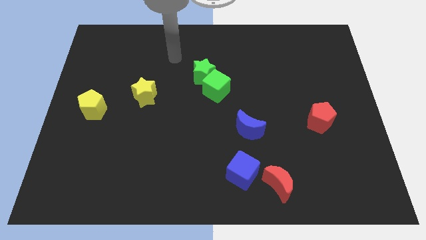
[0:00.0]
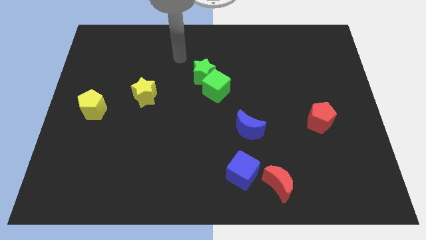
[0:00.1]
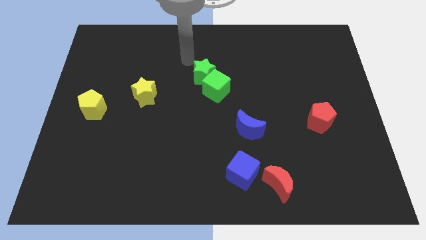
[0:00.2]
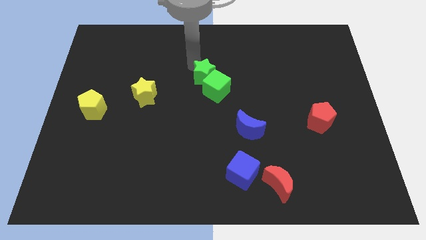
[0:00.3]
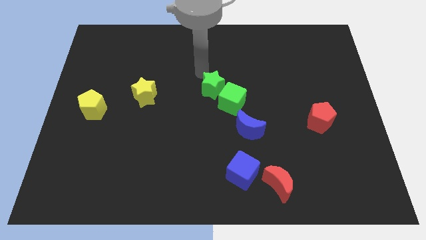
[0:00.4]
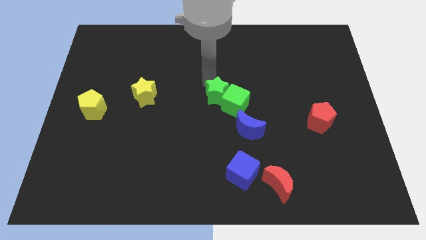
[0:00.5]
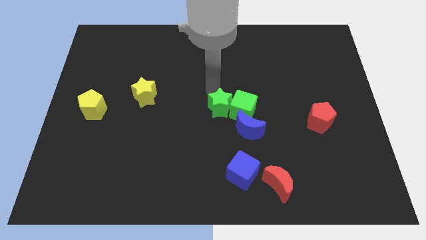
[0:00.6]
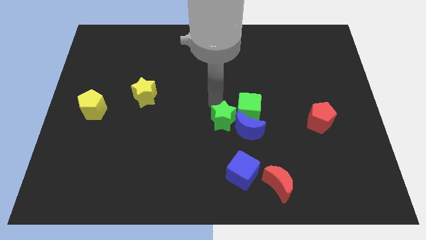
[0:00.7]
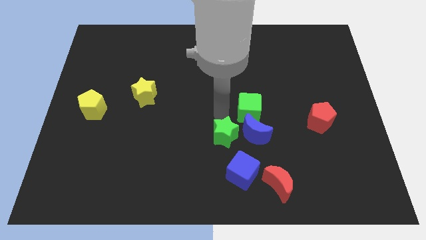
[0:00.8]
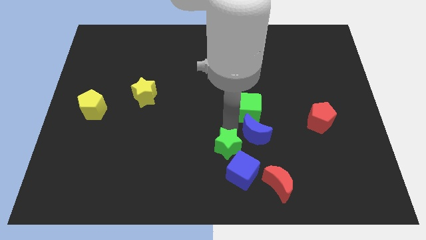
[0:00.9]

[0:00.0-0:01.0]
separate the green cube from the green star

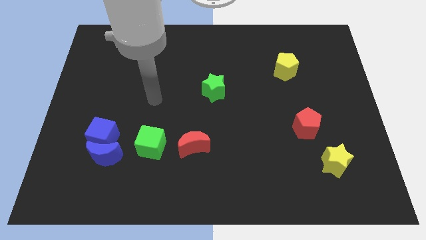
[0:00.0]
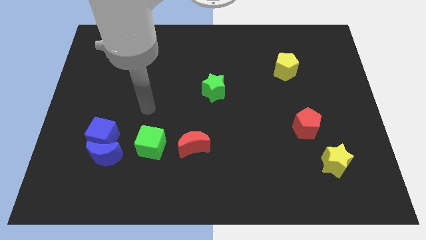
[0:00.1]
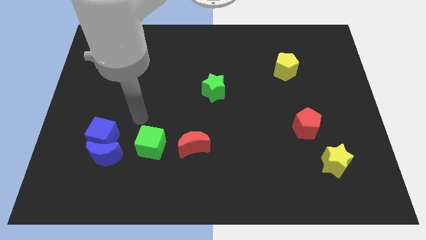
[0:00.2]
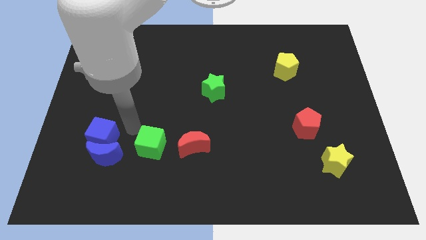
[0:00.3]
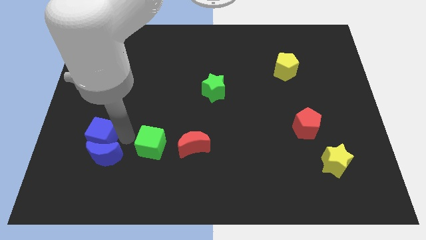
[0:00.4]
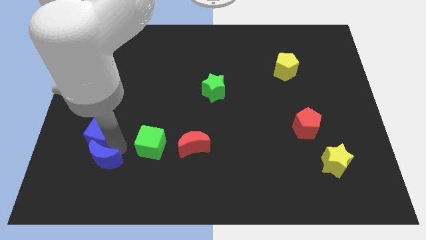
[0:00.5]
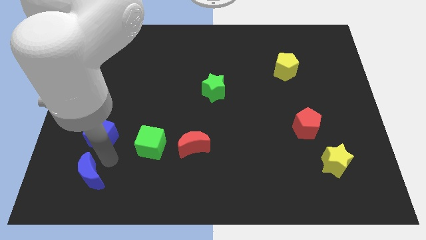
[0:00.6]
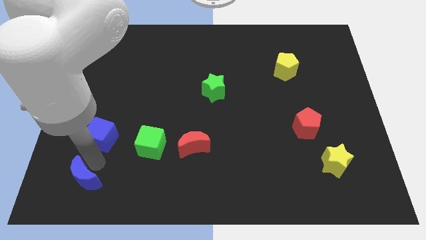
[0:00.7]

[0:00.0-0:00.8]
separate the blue cube from the blue moon

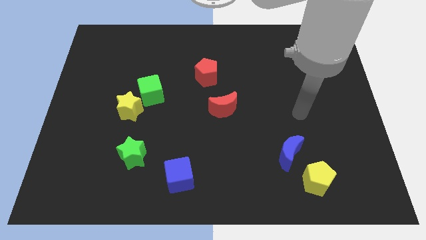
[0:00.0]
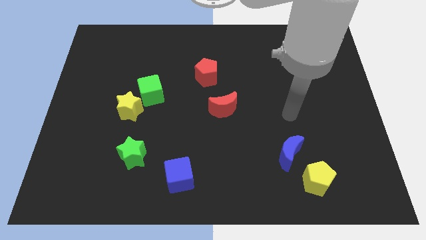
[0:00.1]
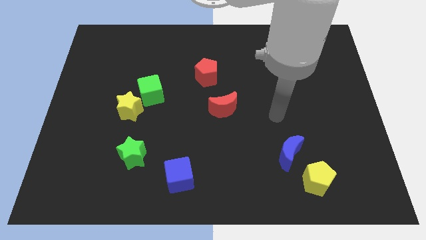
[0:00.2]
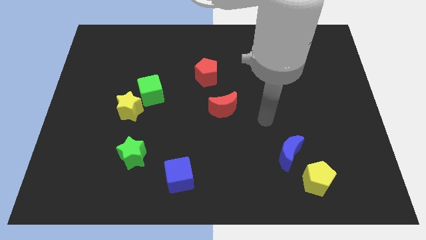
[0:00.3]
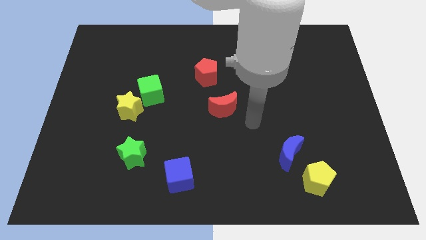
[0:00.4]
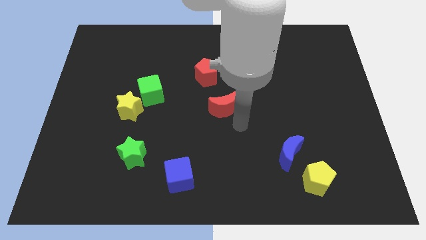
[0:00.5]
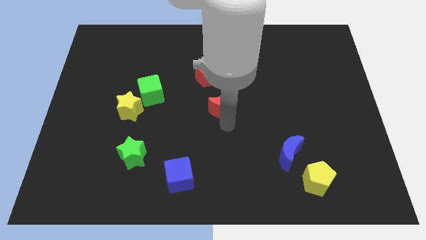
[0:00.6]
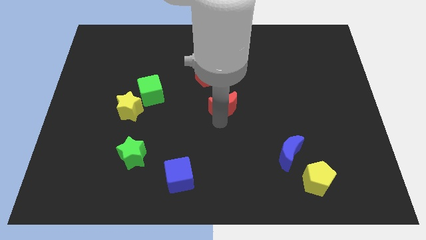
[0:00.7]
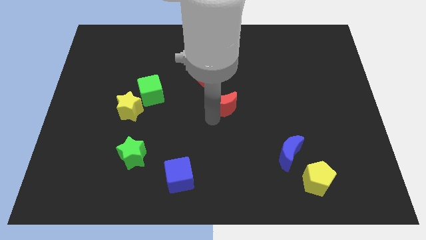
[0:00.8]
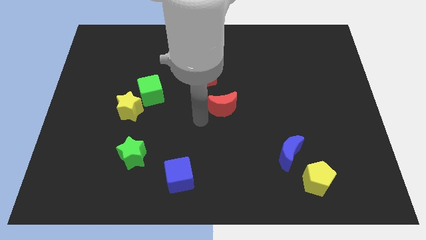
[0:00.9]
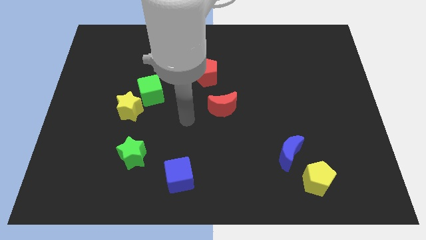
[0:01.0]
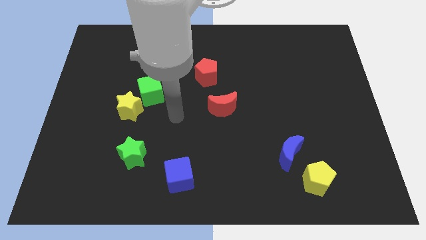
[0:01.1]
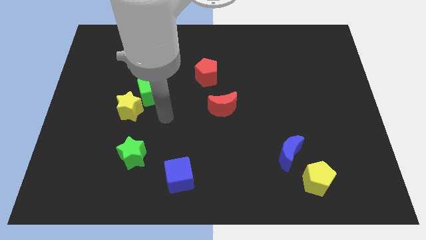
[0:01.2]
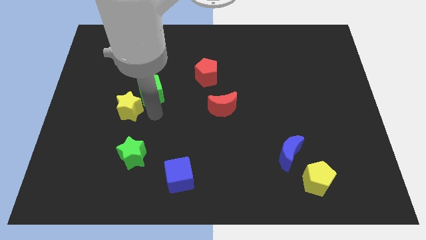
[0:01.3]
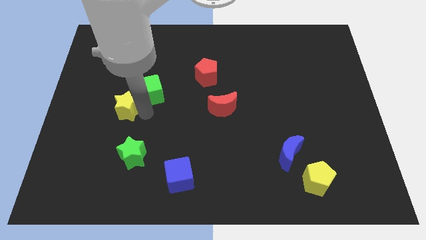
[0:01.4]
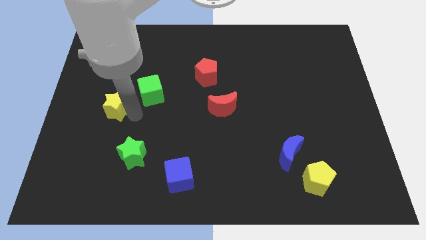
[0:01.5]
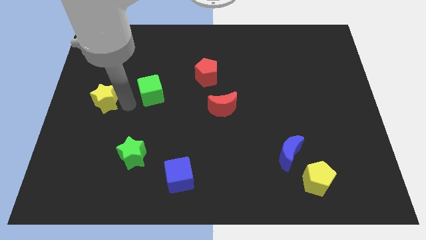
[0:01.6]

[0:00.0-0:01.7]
separate the green cube from the yellow star

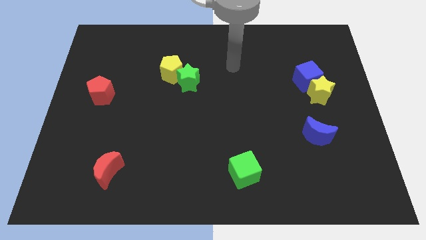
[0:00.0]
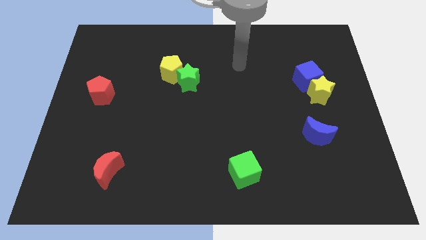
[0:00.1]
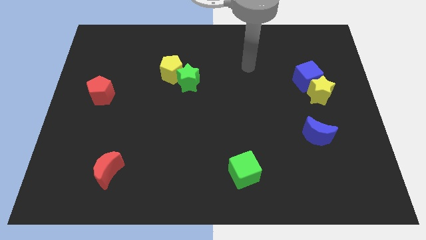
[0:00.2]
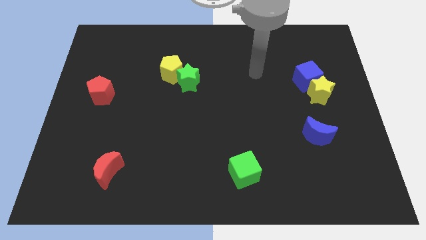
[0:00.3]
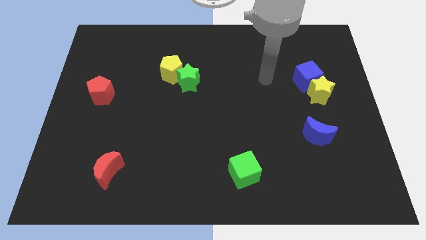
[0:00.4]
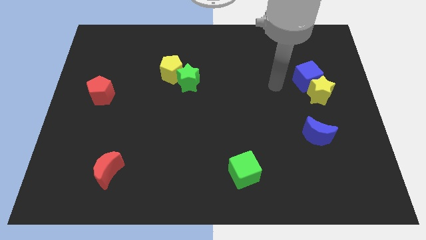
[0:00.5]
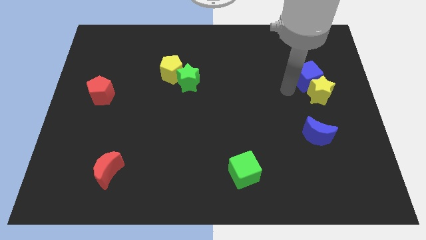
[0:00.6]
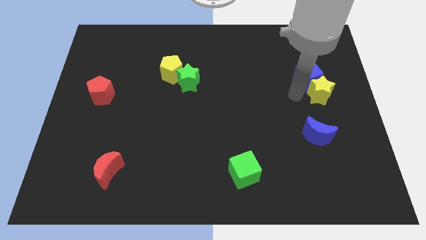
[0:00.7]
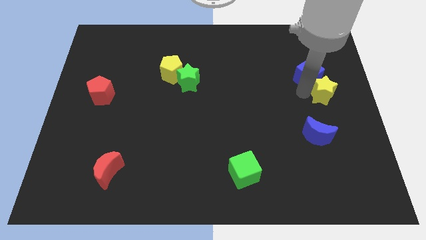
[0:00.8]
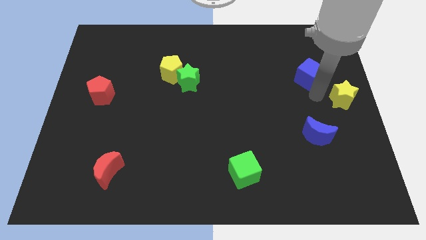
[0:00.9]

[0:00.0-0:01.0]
pull the blue cube apart from the yellow star

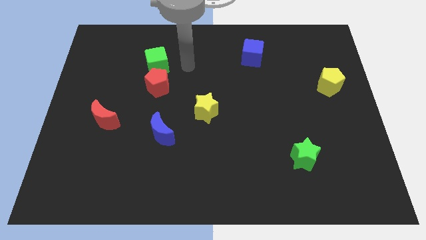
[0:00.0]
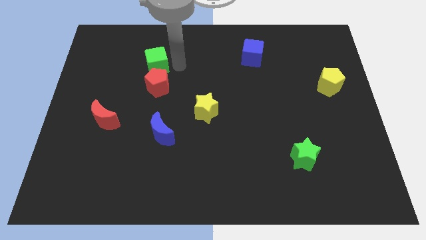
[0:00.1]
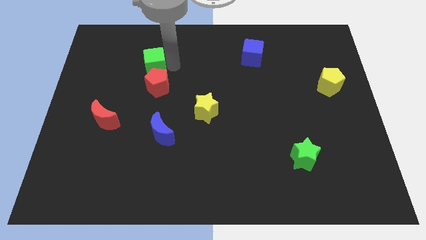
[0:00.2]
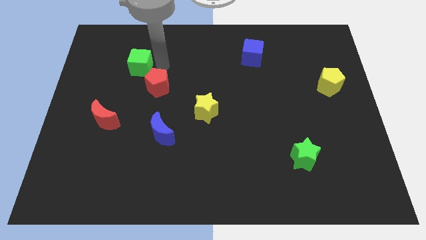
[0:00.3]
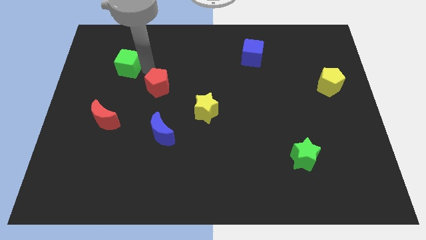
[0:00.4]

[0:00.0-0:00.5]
pull the red pentagon apart from the green cube

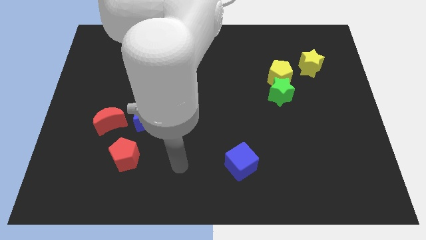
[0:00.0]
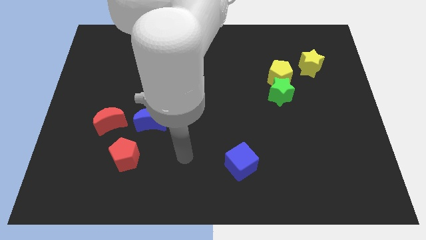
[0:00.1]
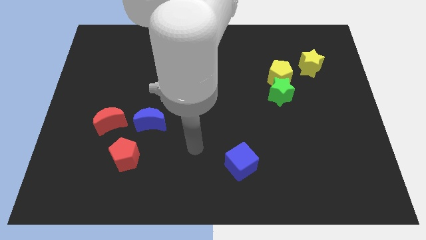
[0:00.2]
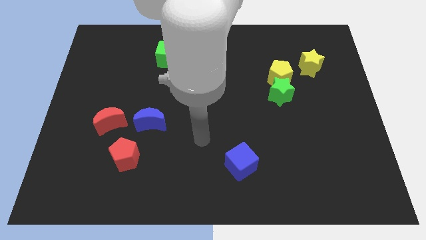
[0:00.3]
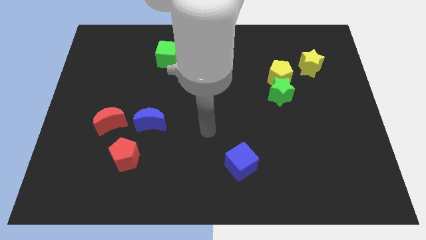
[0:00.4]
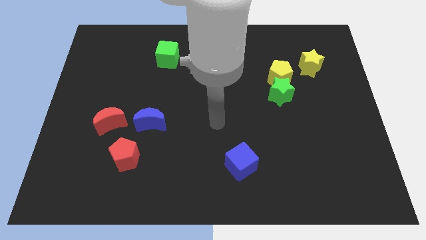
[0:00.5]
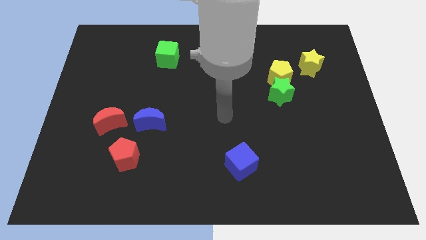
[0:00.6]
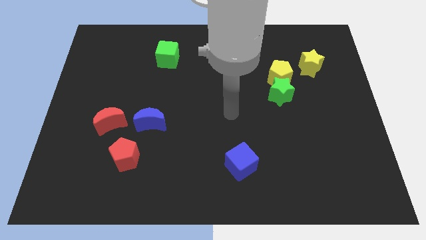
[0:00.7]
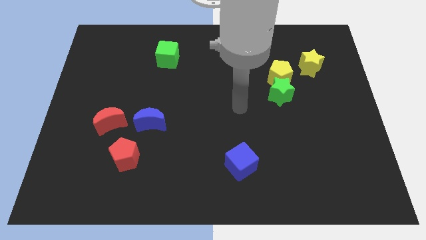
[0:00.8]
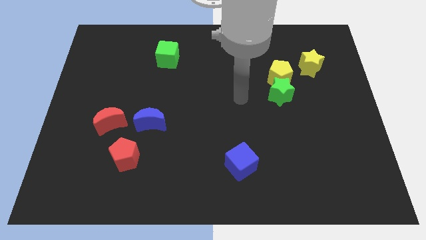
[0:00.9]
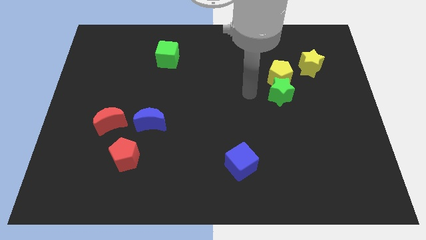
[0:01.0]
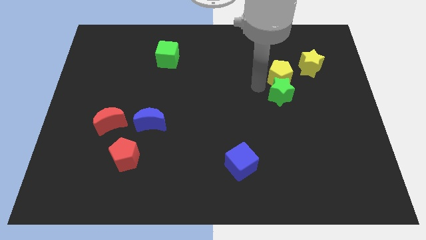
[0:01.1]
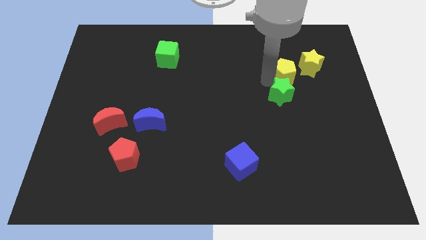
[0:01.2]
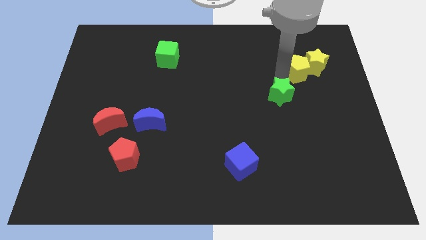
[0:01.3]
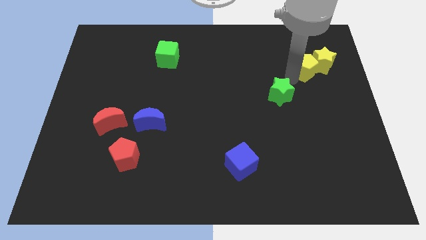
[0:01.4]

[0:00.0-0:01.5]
separate the green star from the yellow pentagon

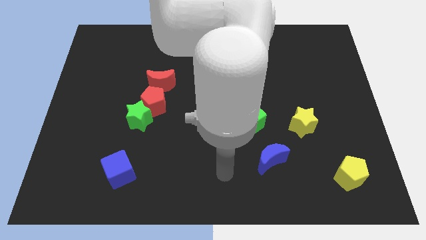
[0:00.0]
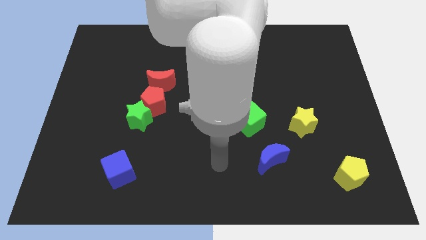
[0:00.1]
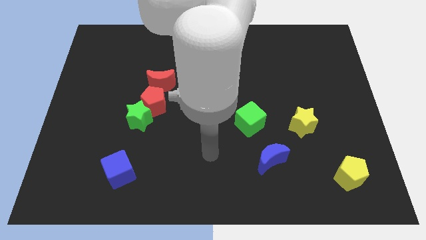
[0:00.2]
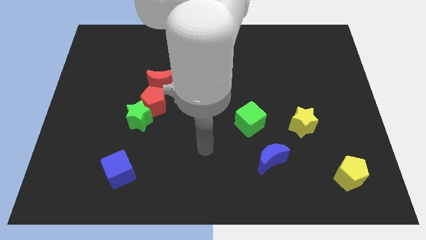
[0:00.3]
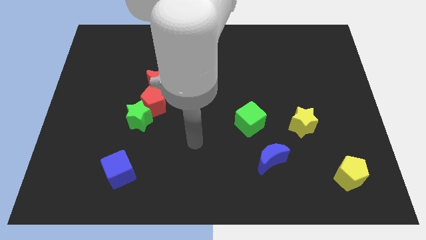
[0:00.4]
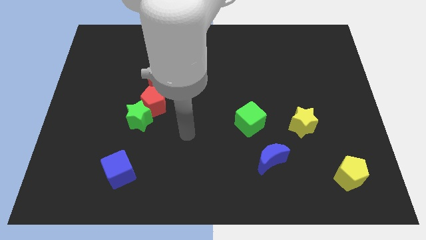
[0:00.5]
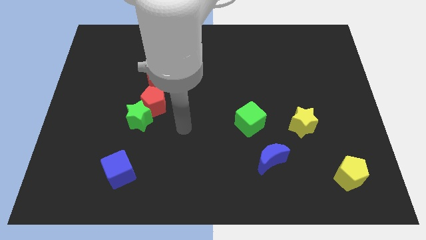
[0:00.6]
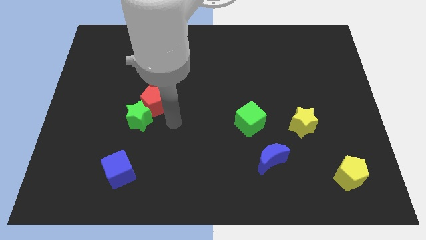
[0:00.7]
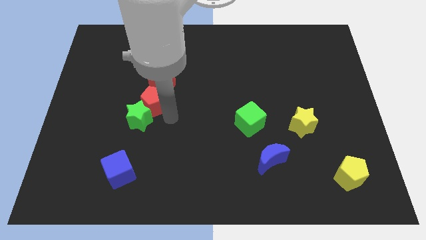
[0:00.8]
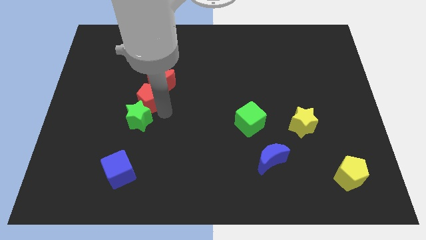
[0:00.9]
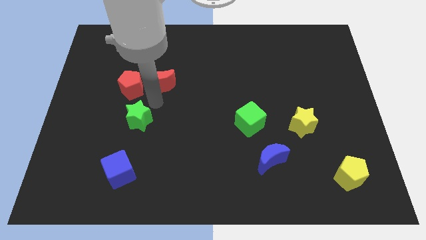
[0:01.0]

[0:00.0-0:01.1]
pull the green star apart from the red pentagon

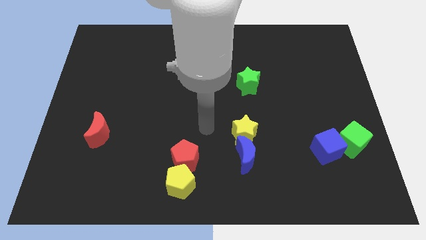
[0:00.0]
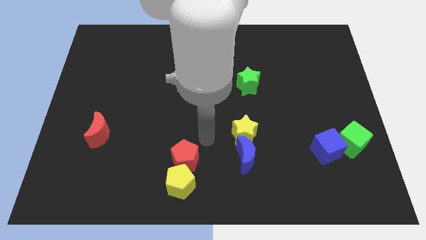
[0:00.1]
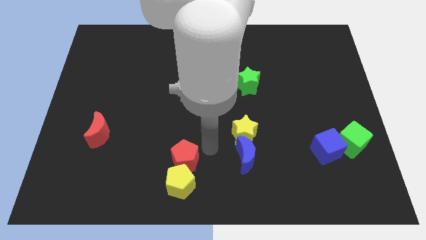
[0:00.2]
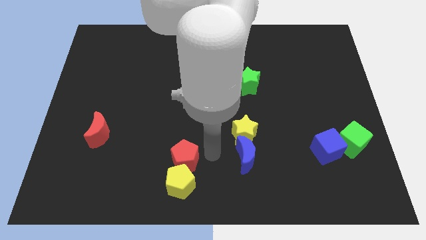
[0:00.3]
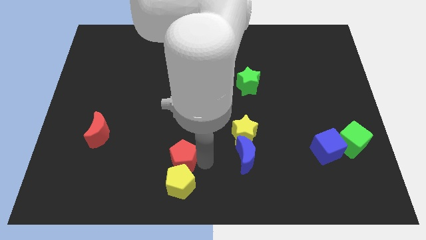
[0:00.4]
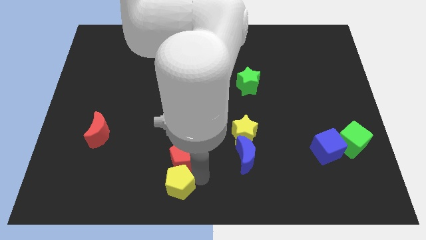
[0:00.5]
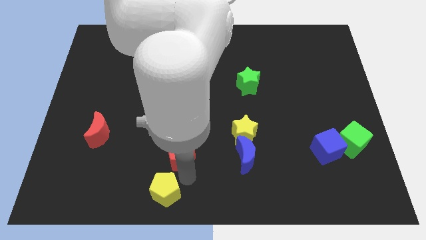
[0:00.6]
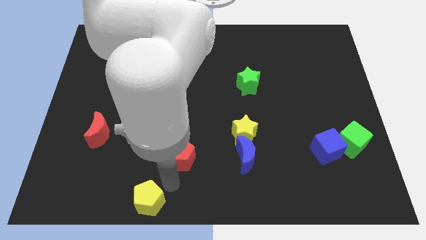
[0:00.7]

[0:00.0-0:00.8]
pull the red pentagon apart from the yellow pentagon

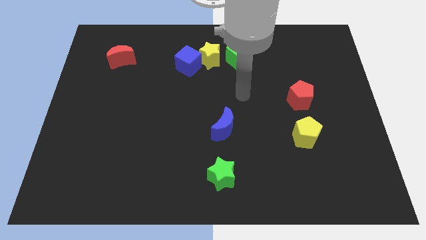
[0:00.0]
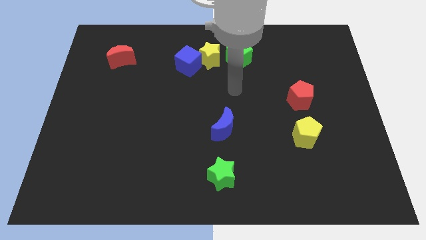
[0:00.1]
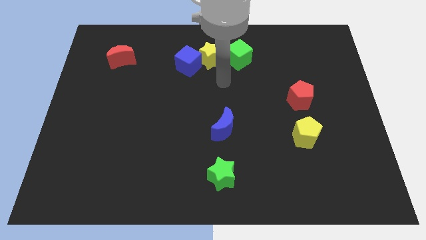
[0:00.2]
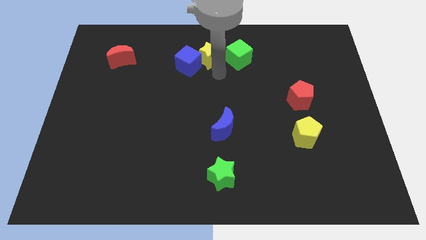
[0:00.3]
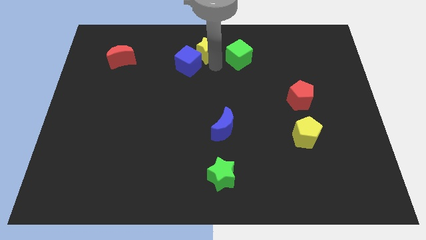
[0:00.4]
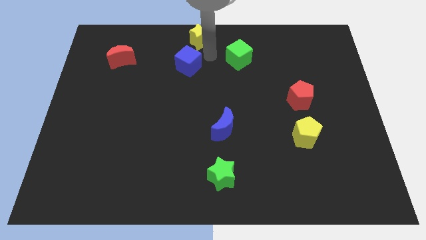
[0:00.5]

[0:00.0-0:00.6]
separate the blue cube from the yellow star

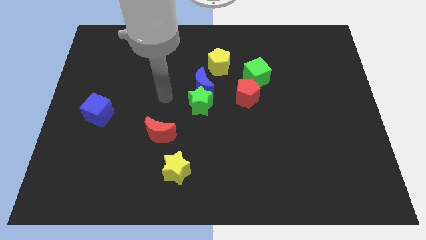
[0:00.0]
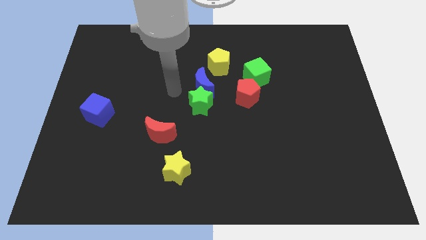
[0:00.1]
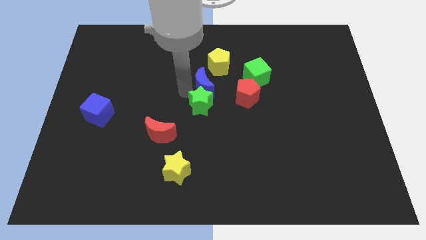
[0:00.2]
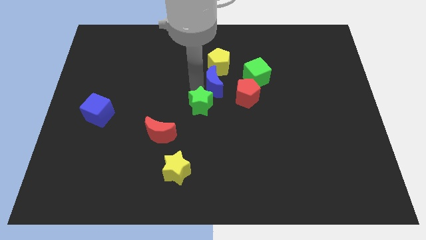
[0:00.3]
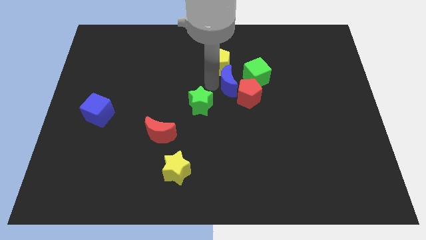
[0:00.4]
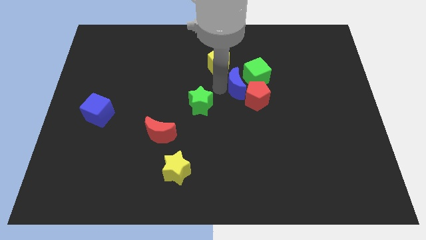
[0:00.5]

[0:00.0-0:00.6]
pull the green star apart from the blue moon
